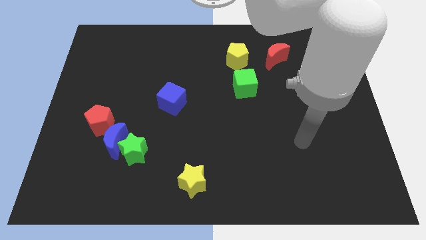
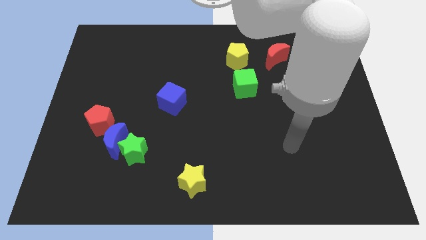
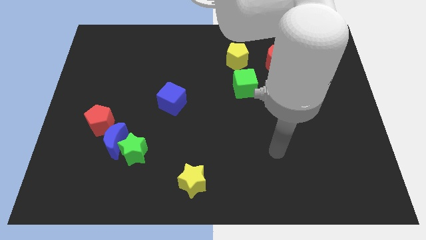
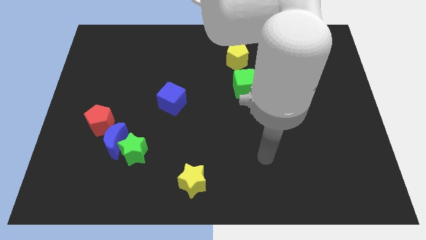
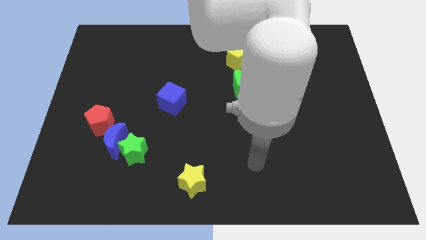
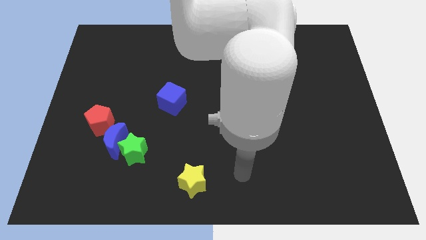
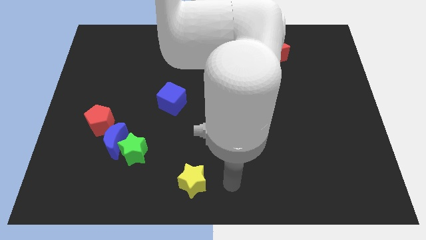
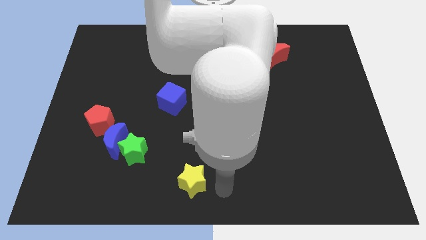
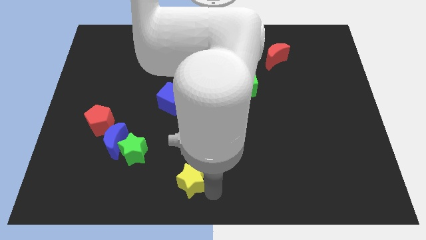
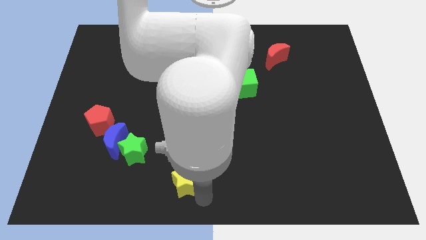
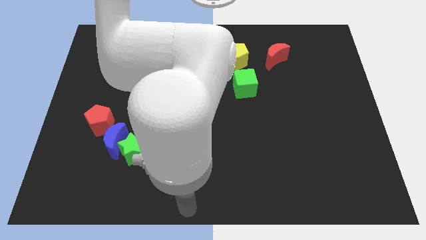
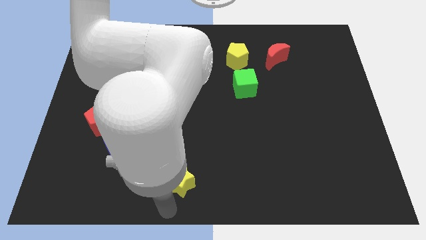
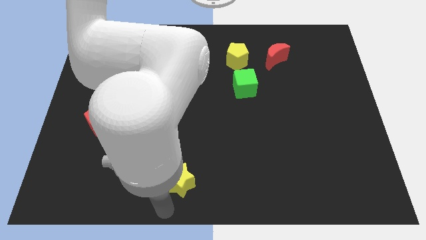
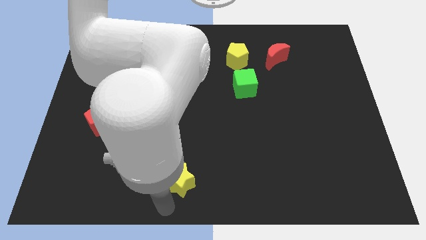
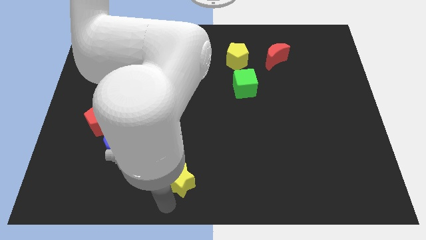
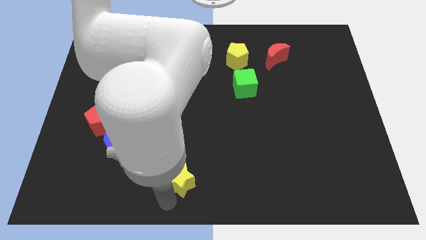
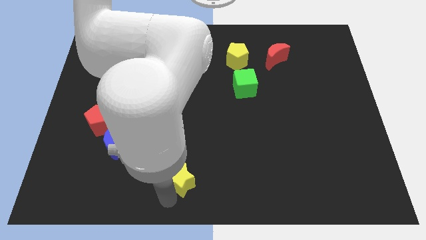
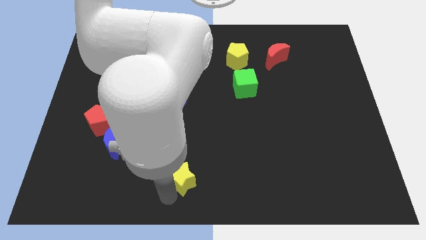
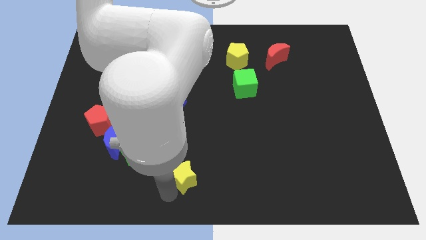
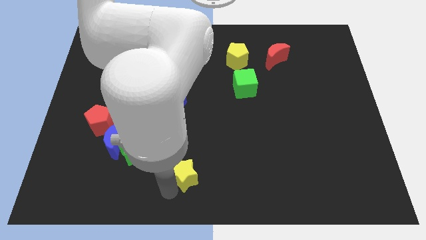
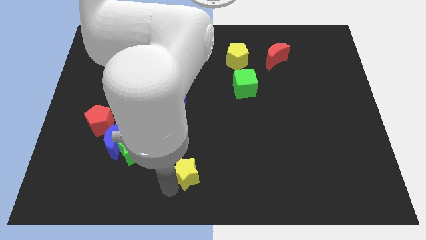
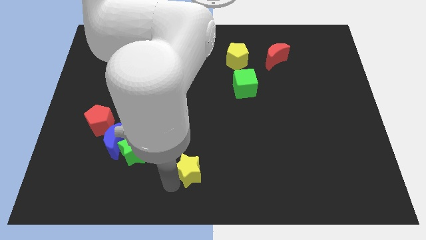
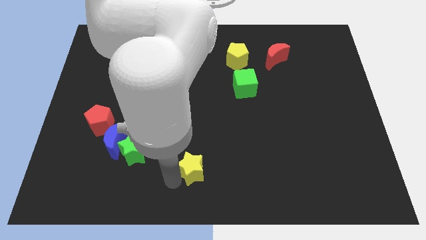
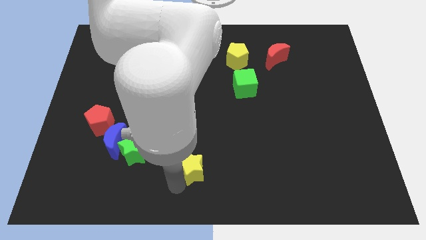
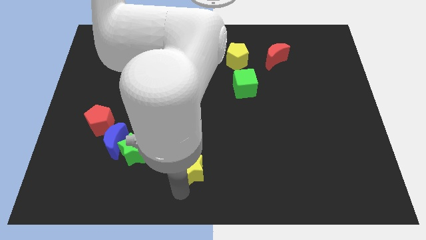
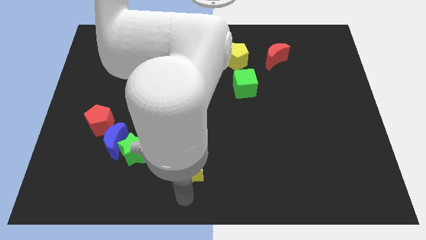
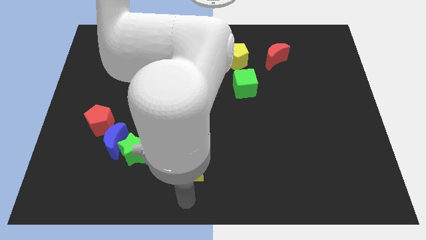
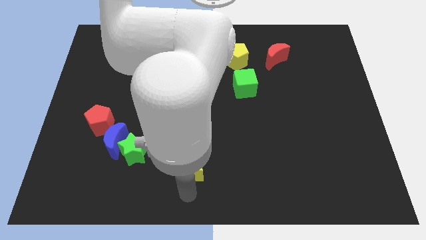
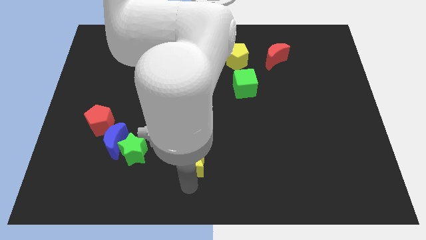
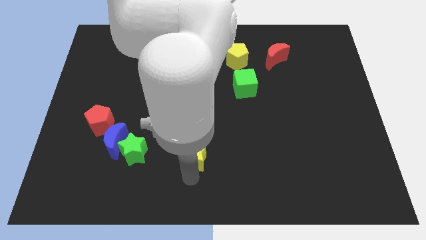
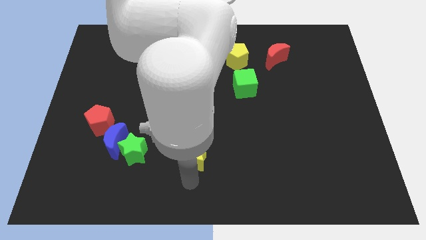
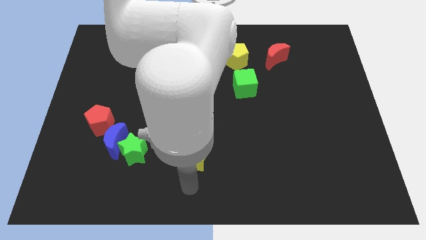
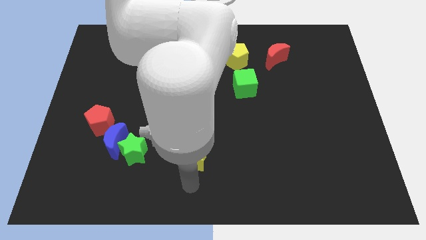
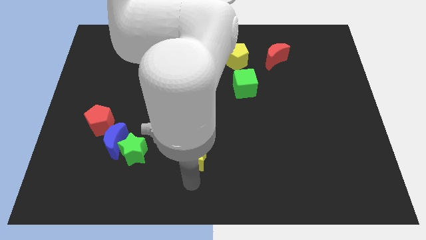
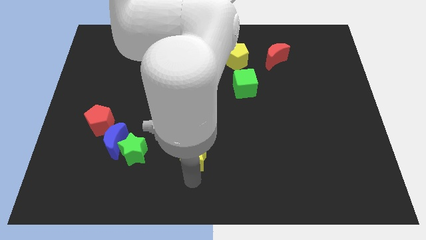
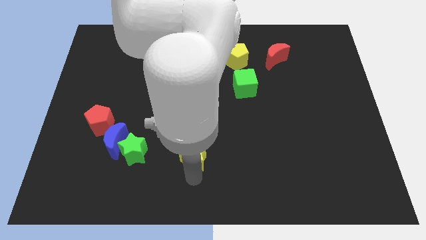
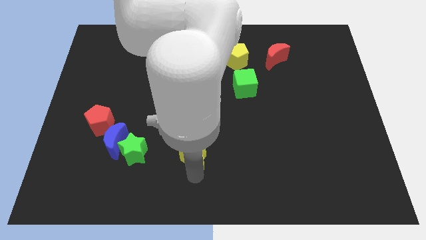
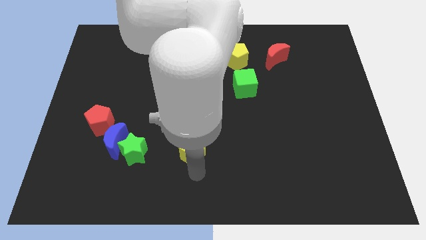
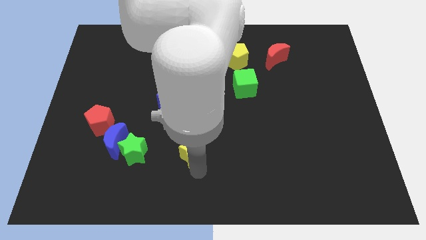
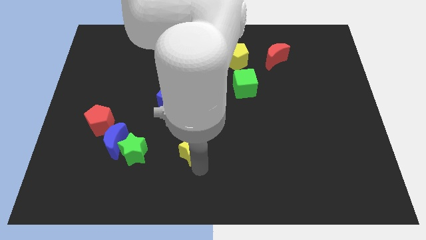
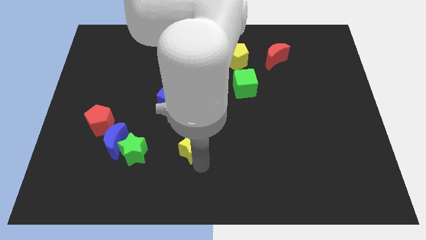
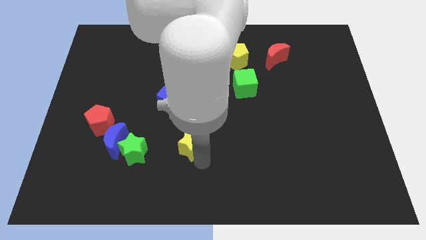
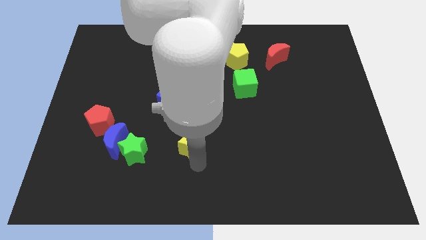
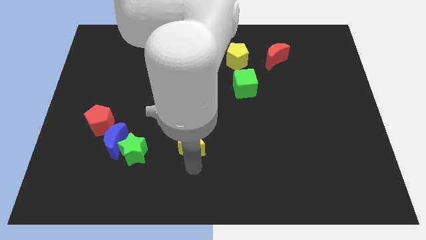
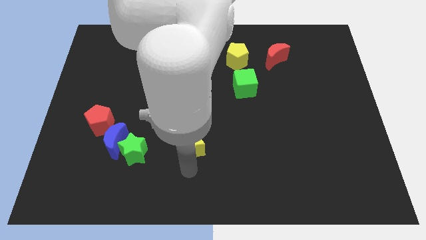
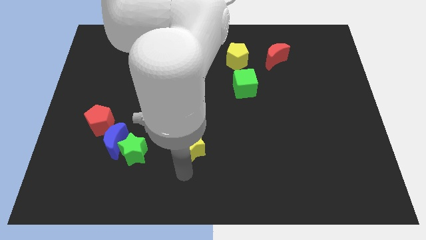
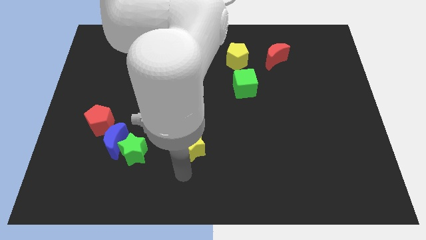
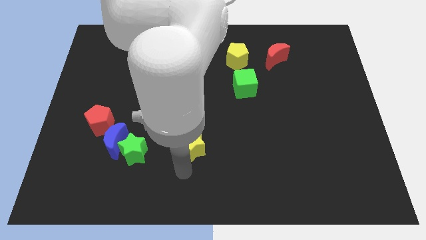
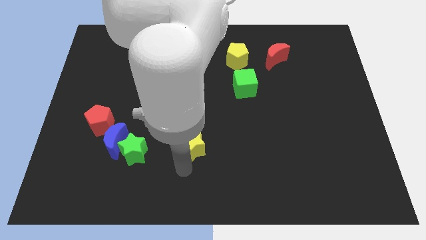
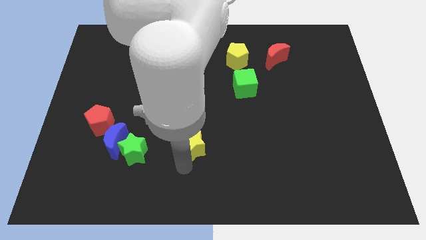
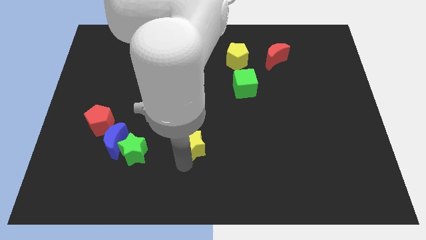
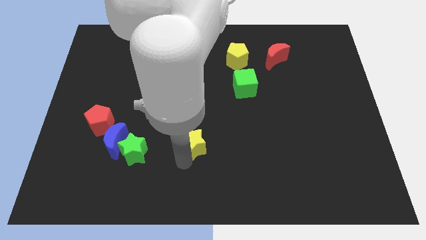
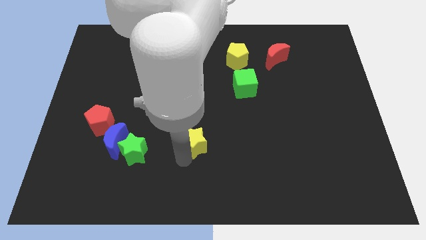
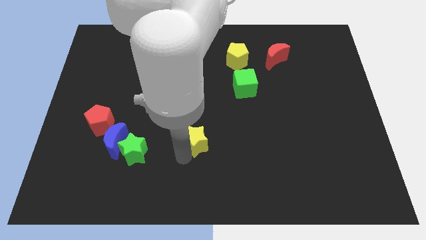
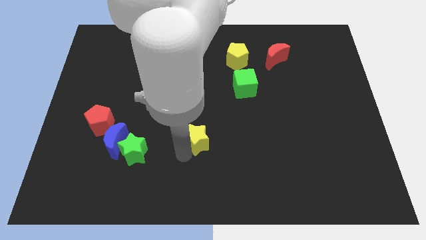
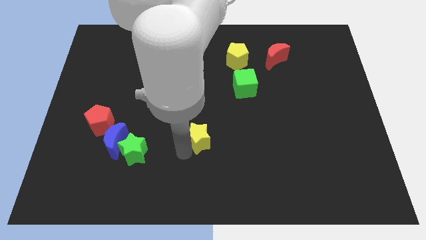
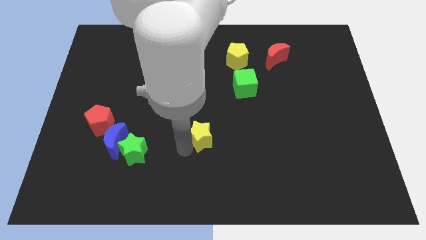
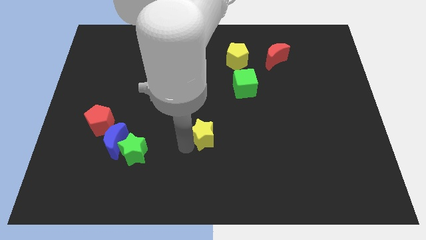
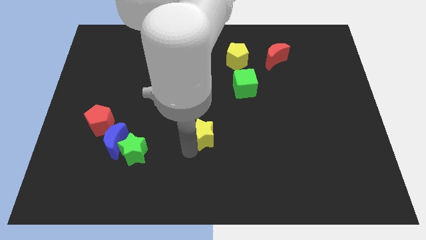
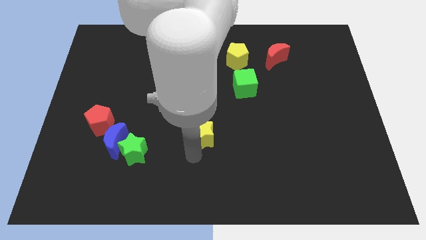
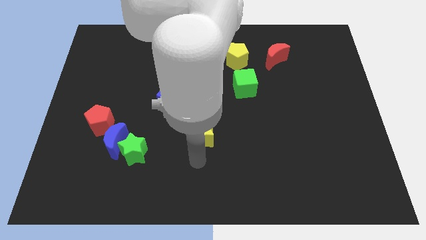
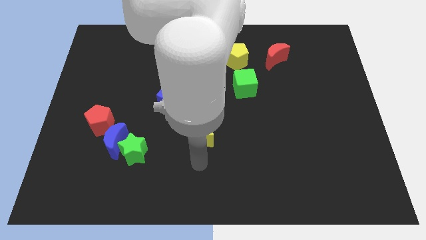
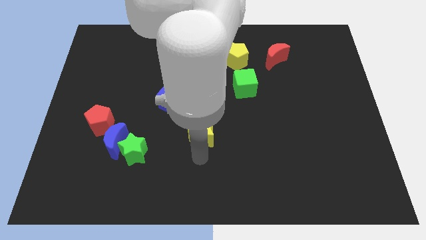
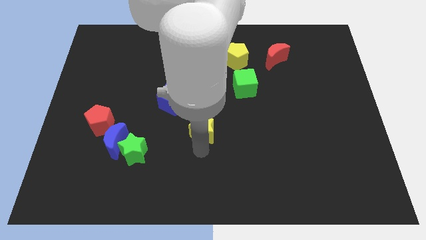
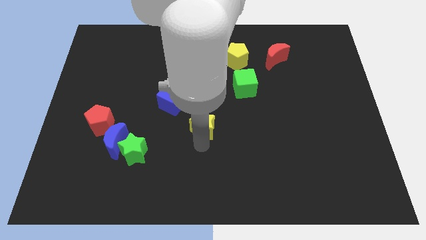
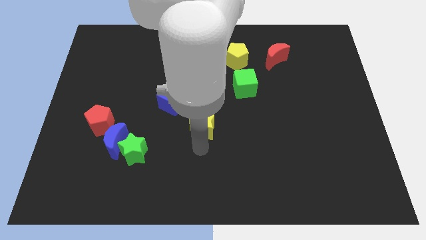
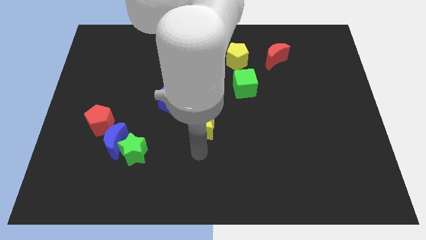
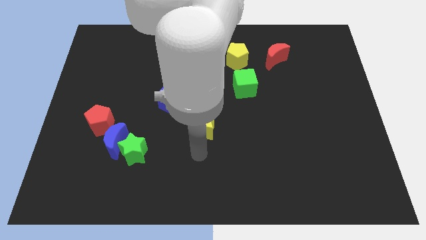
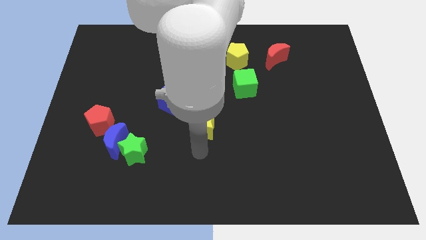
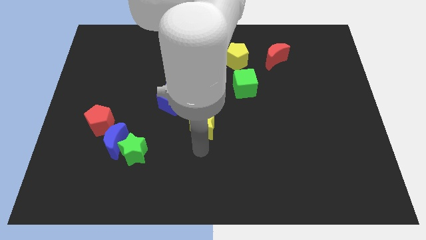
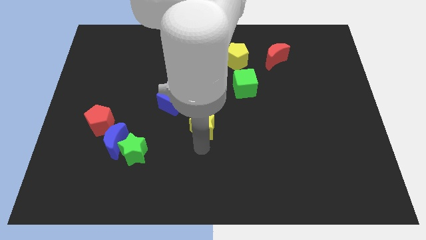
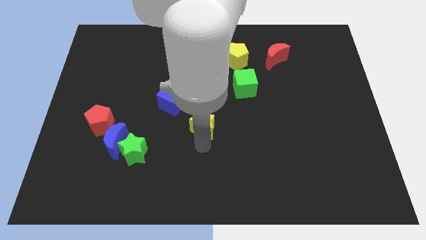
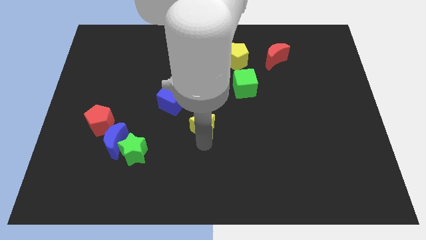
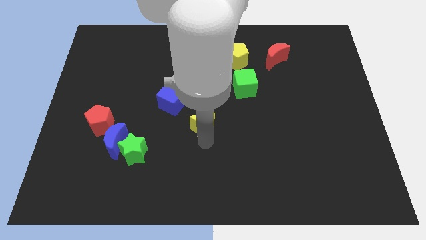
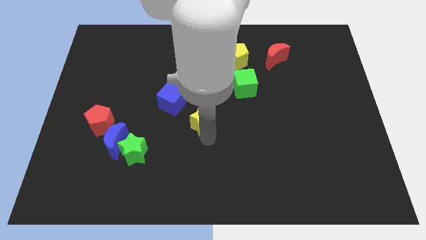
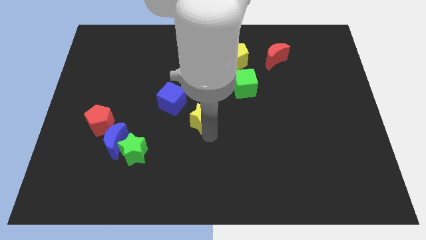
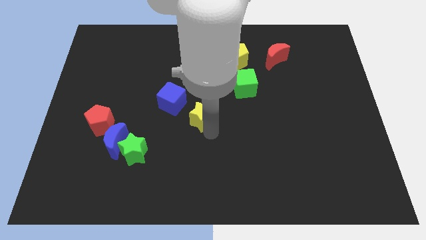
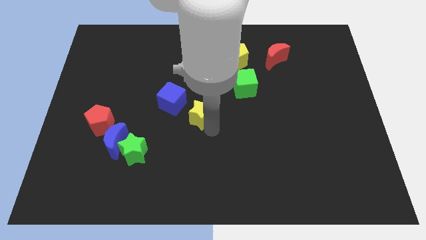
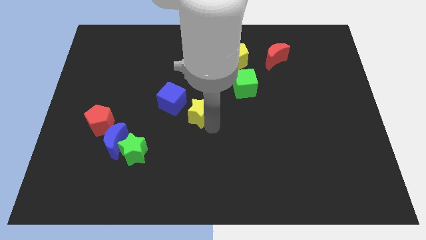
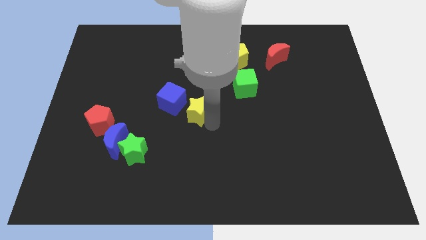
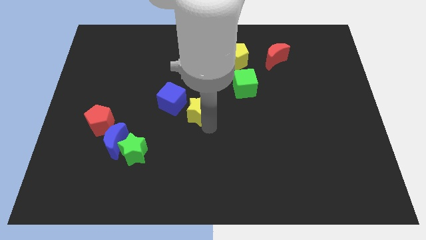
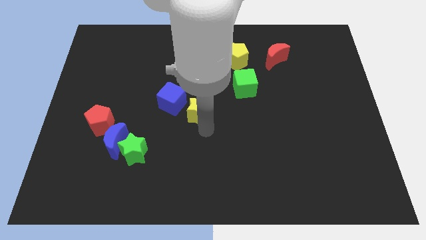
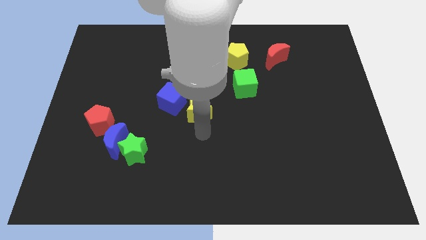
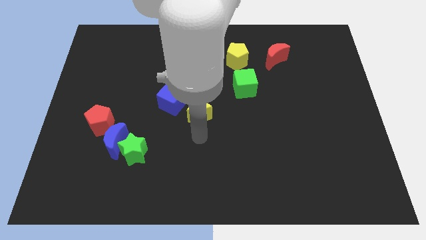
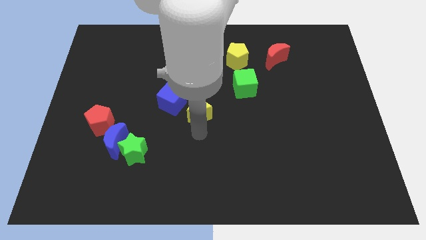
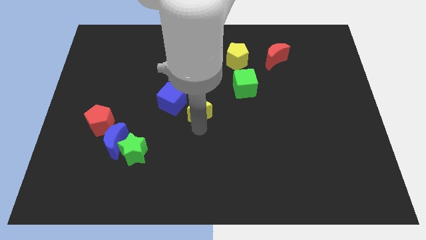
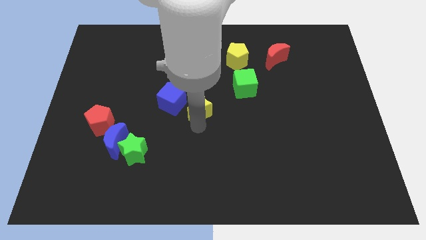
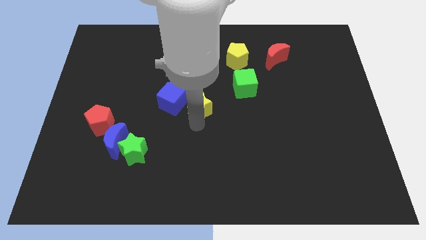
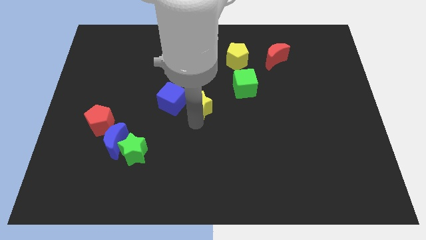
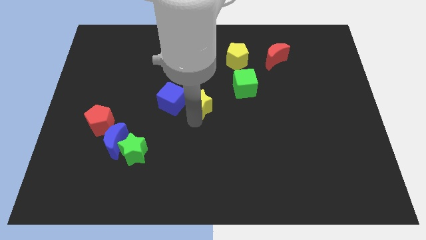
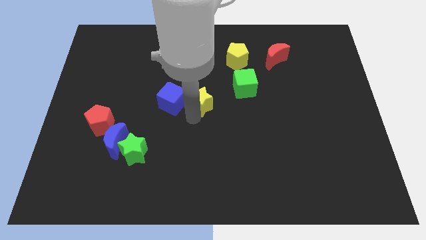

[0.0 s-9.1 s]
push the yellow star upwards
